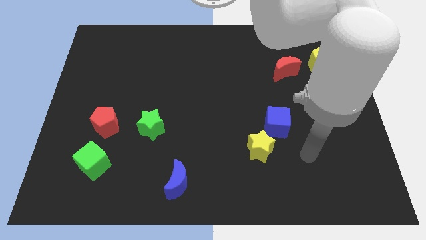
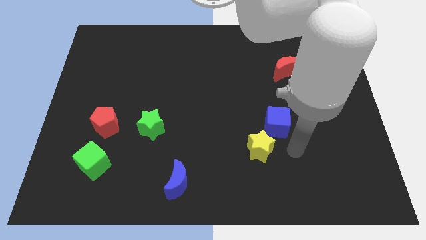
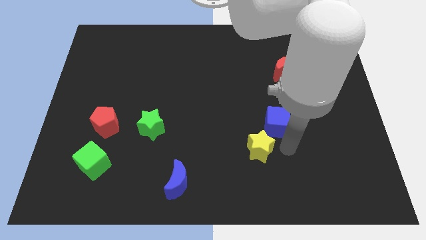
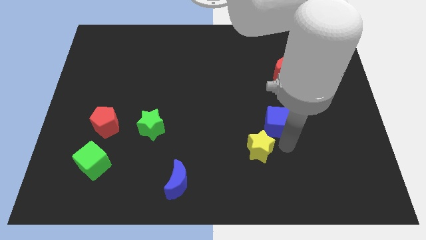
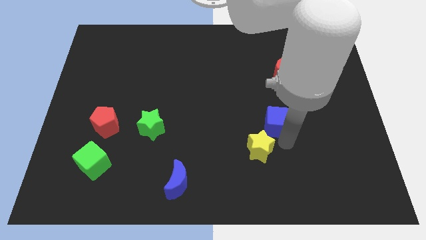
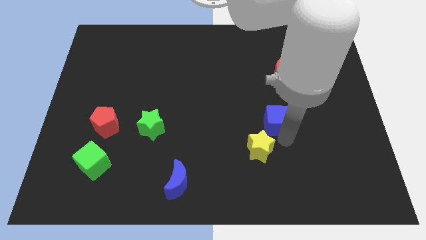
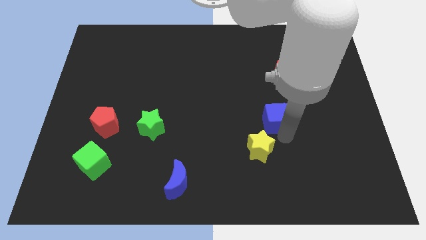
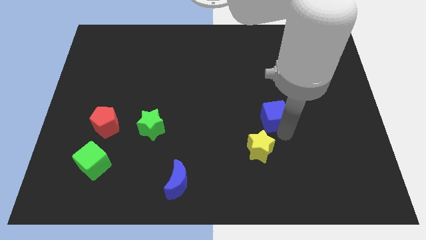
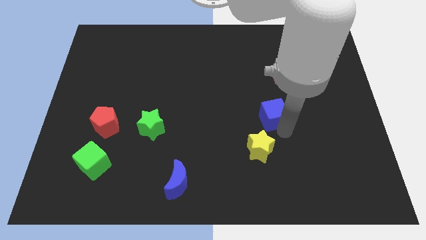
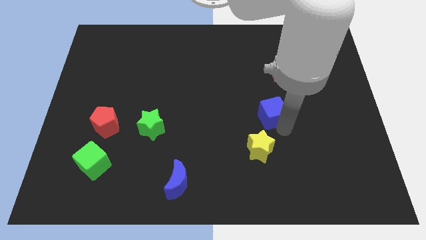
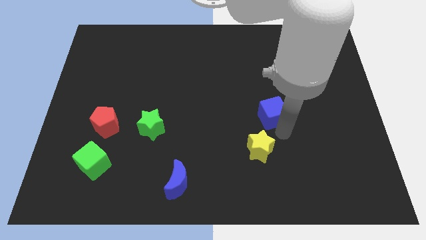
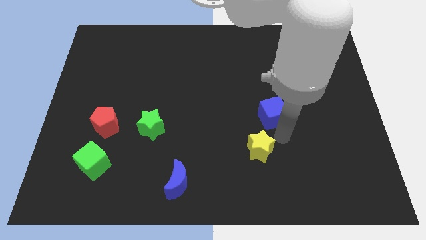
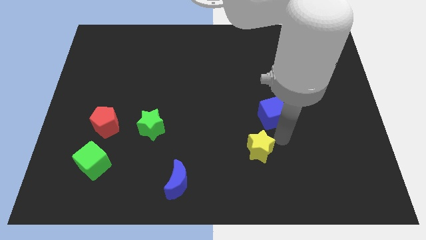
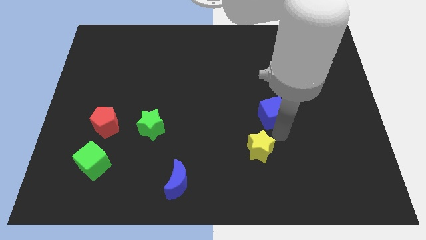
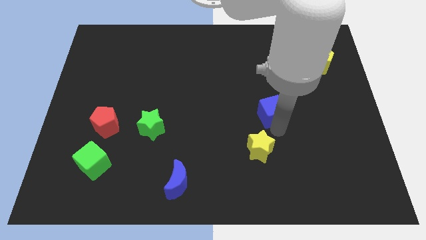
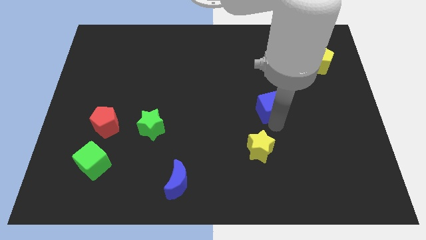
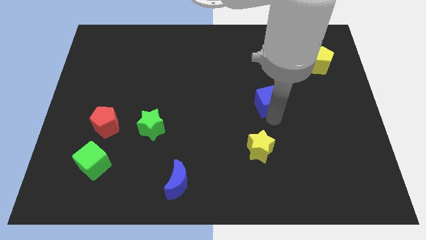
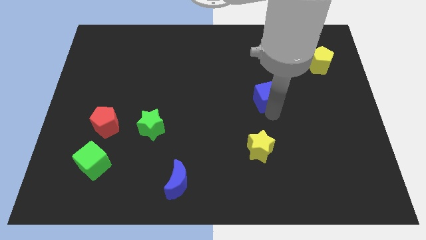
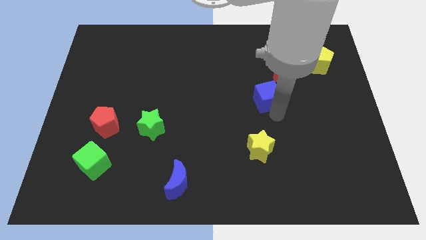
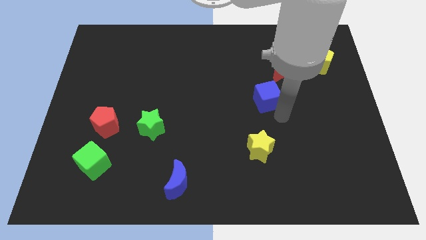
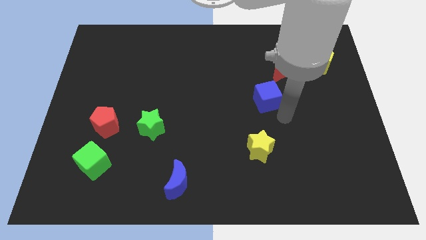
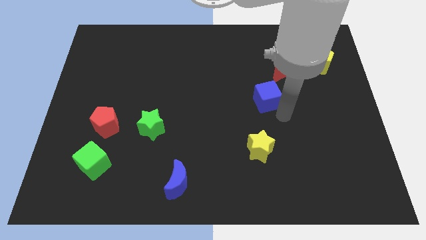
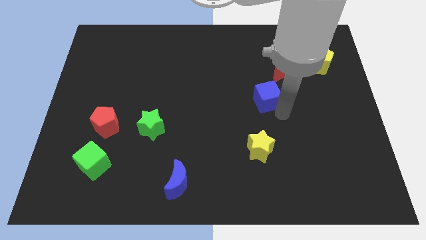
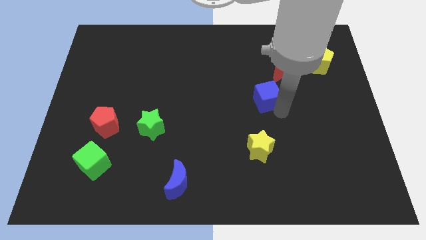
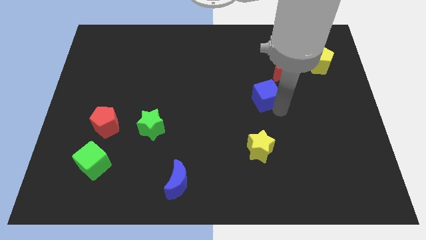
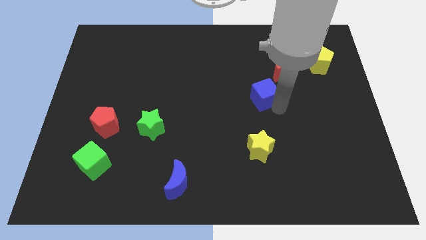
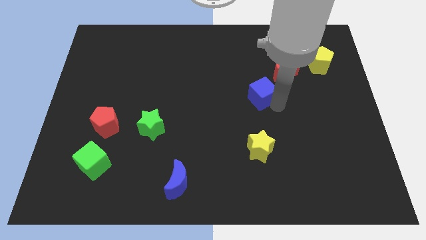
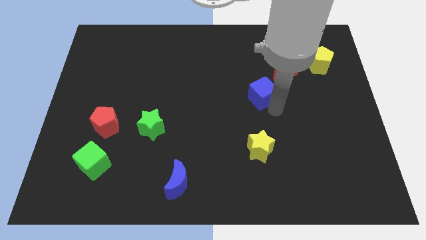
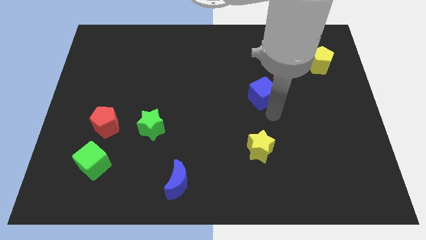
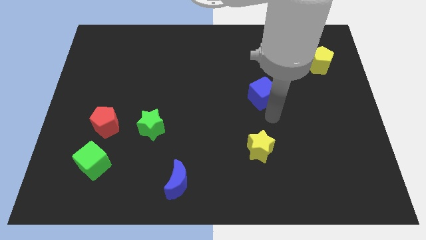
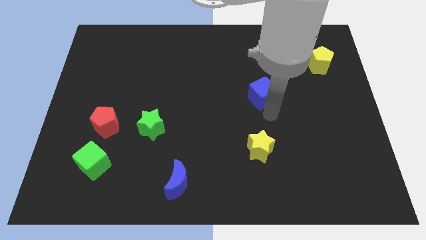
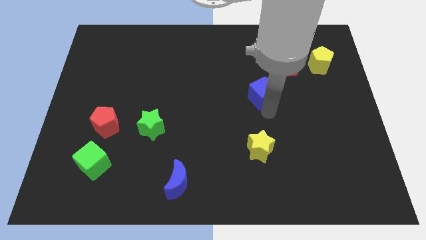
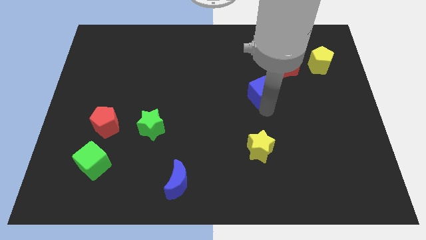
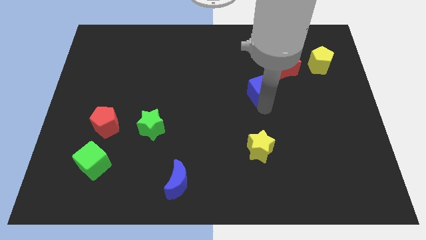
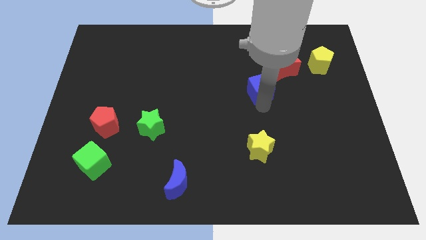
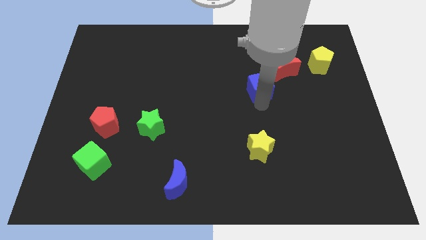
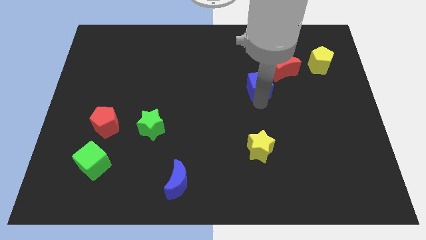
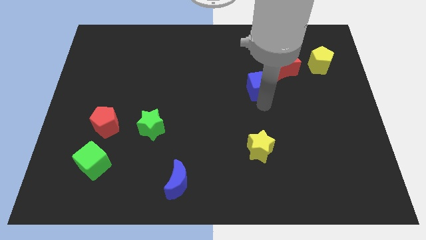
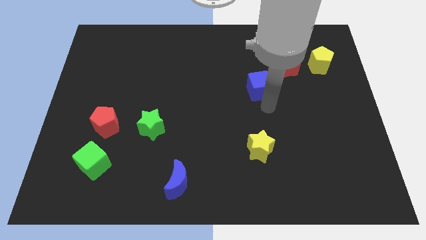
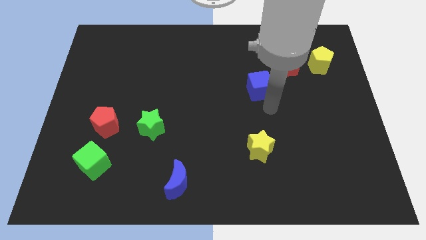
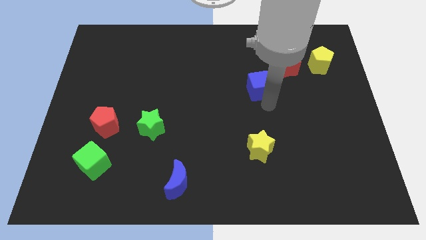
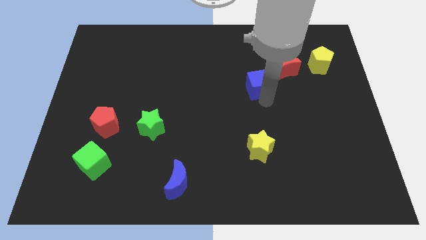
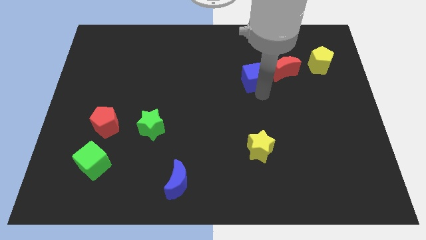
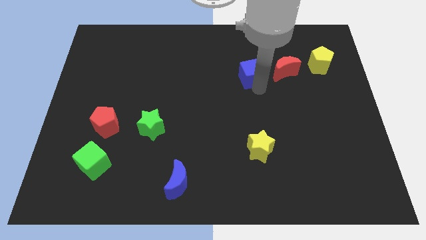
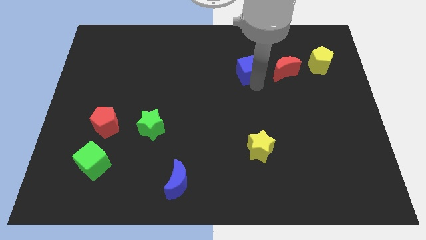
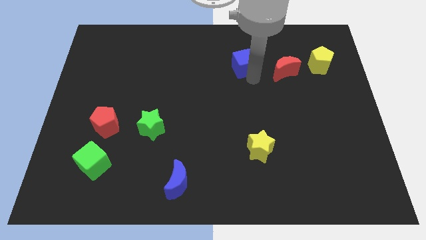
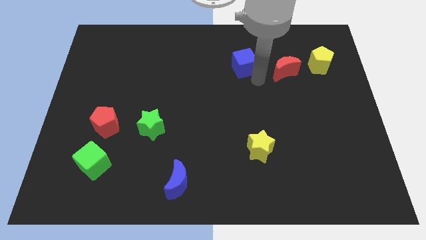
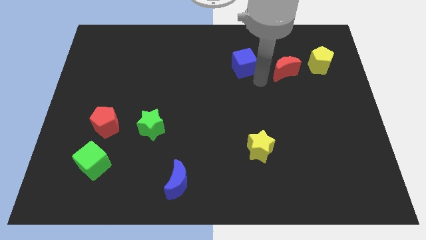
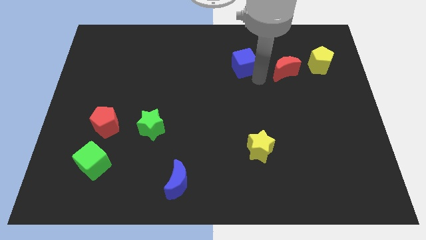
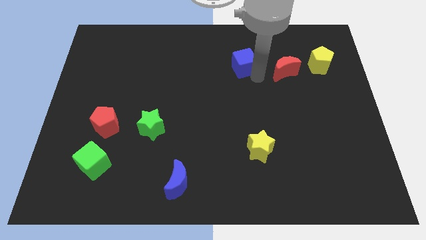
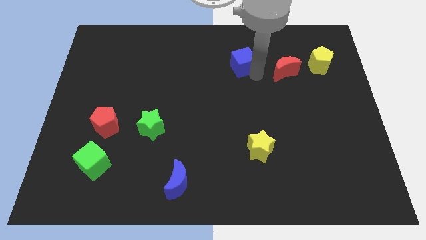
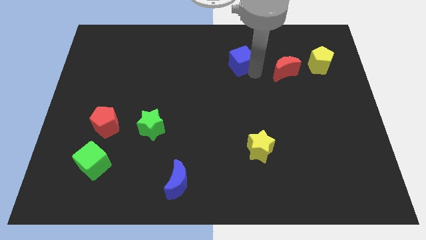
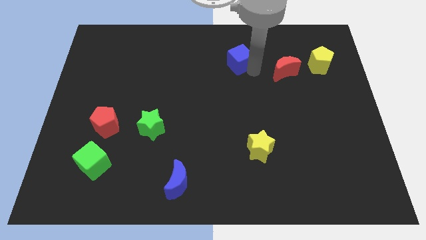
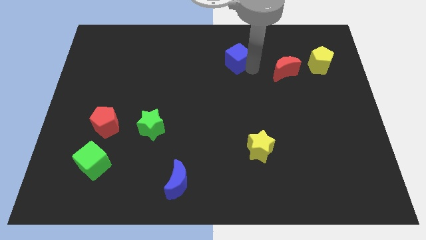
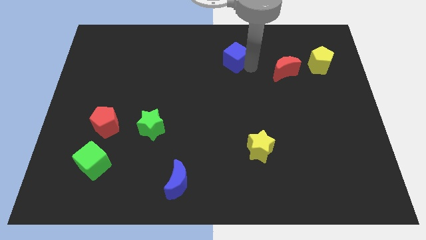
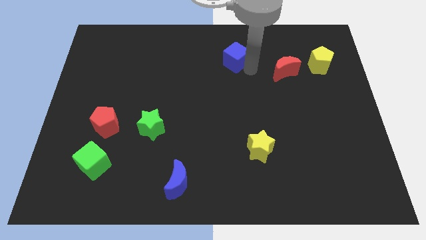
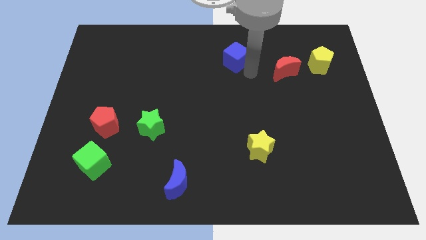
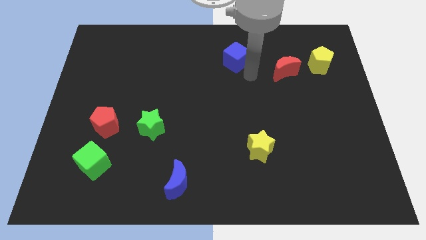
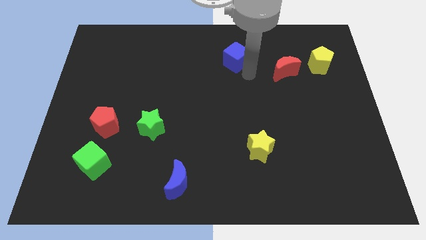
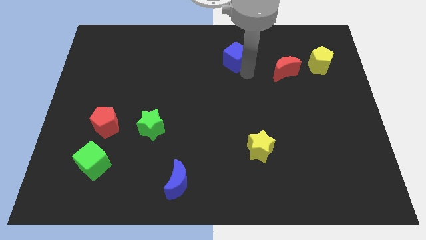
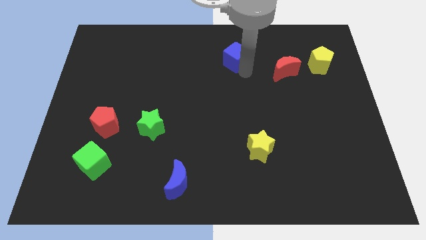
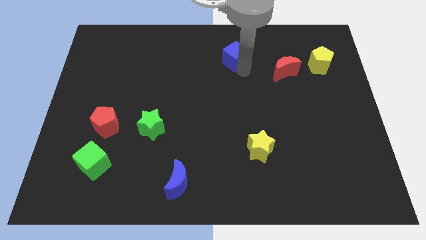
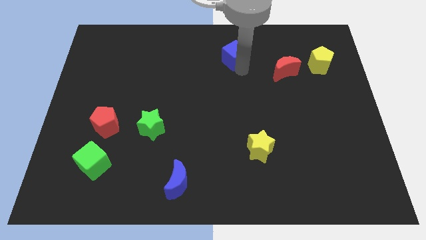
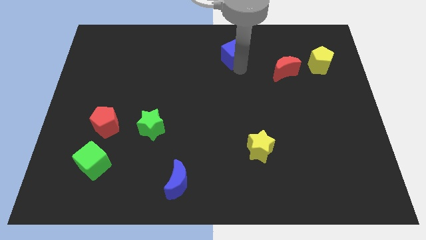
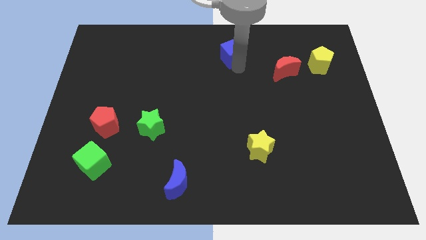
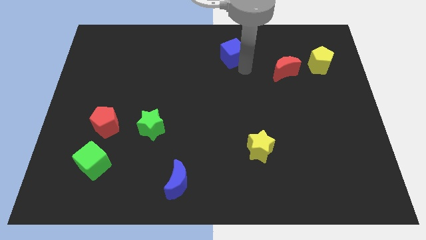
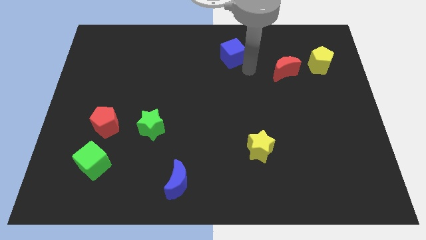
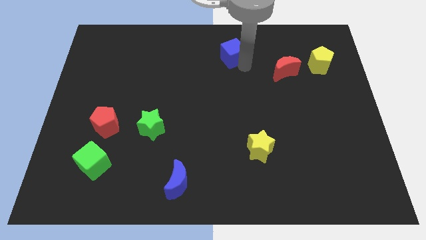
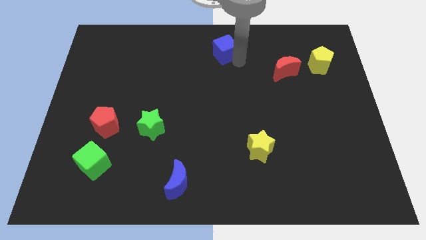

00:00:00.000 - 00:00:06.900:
slide the blue cube to the top side
